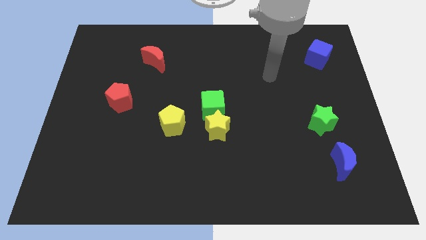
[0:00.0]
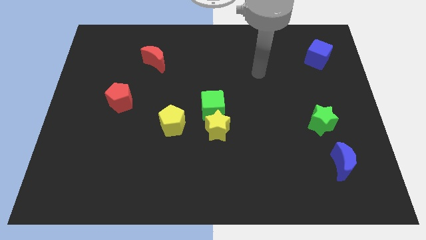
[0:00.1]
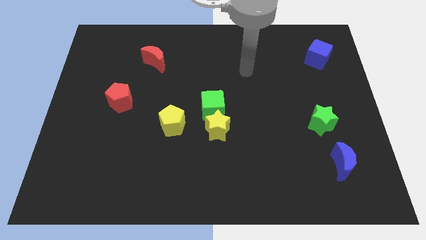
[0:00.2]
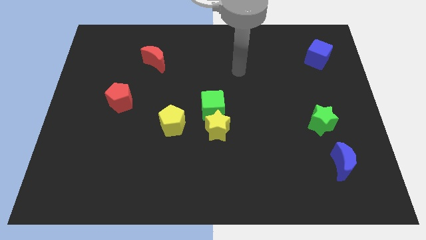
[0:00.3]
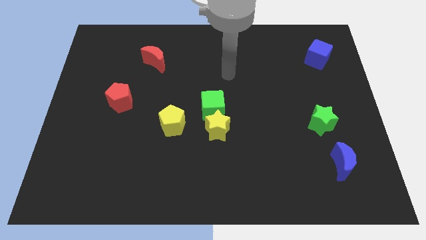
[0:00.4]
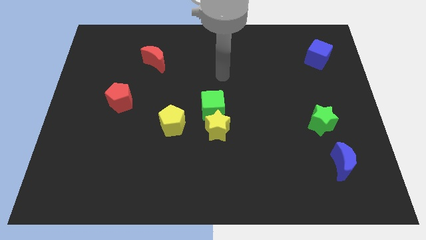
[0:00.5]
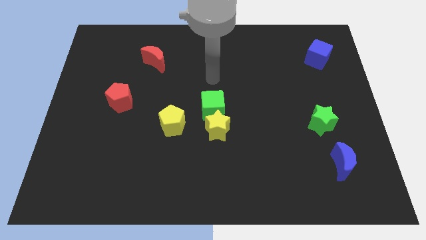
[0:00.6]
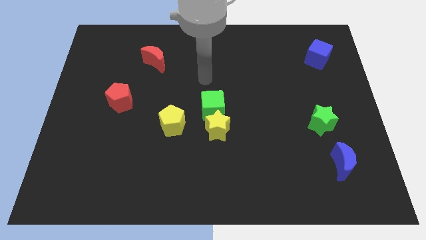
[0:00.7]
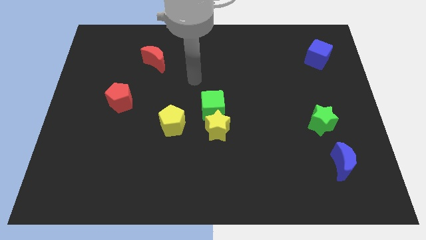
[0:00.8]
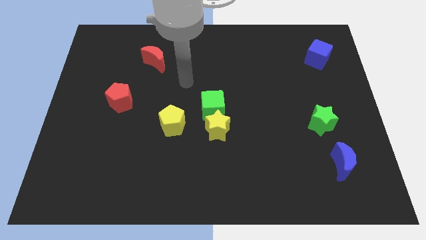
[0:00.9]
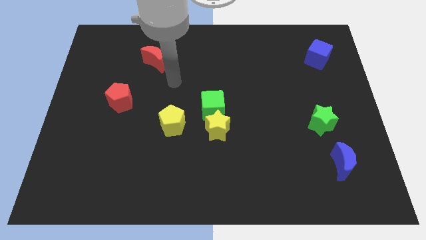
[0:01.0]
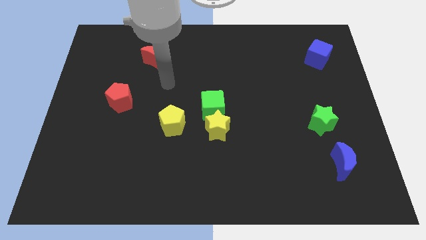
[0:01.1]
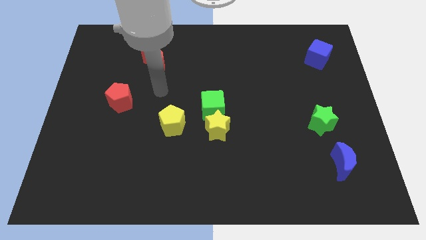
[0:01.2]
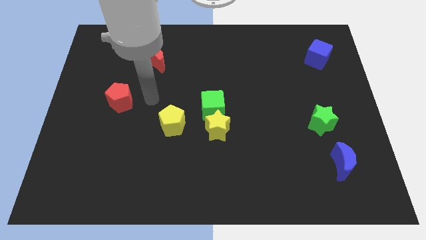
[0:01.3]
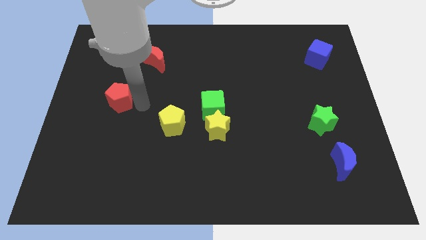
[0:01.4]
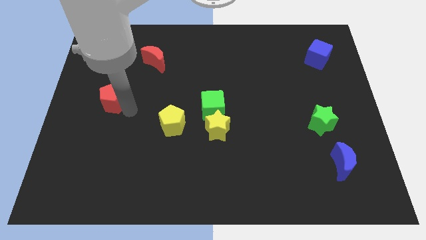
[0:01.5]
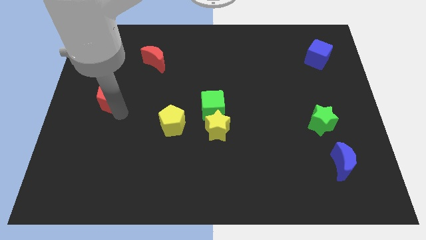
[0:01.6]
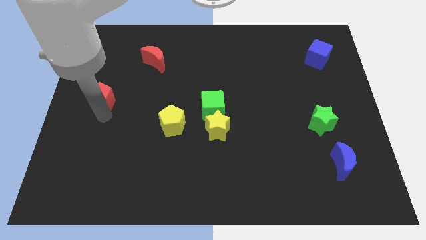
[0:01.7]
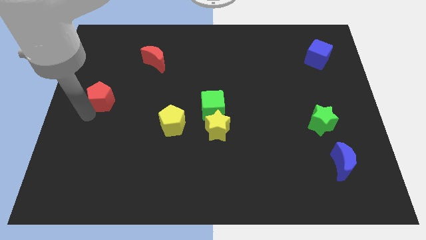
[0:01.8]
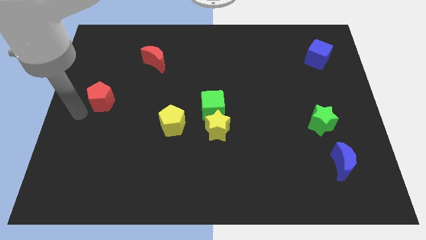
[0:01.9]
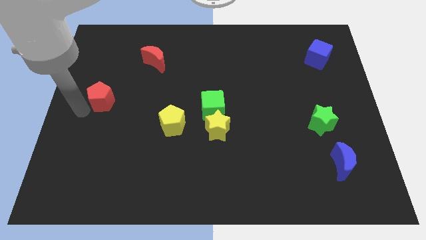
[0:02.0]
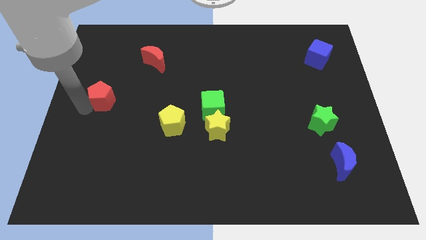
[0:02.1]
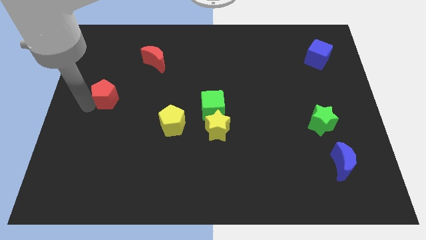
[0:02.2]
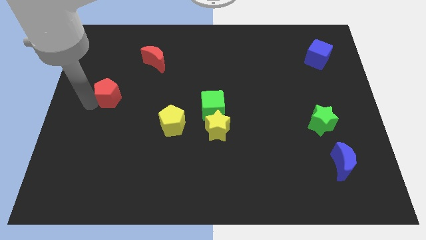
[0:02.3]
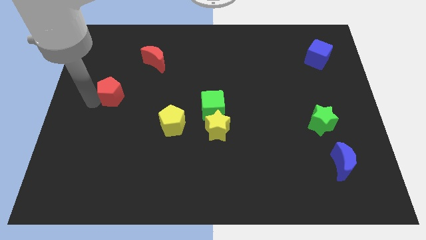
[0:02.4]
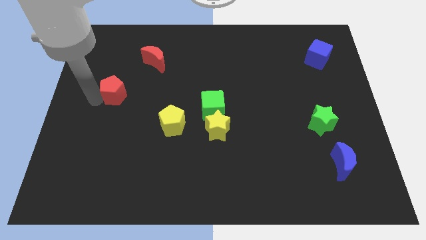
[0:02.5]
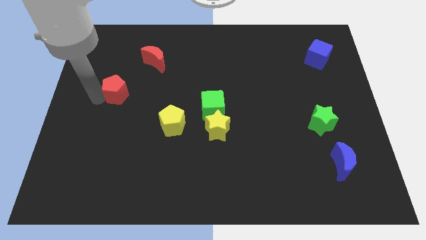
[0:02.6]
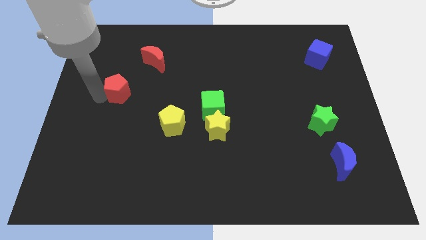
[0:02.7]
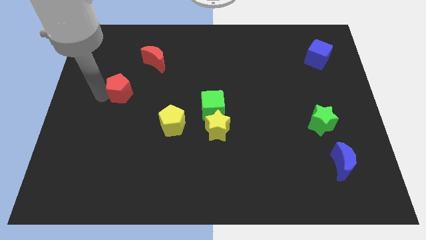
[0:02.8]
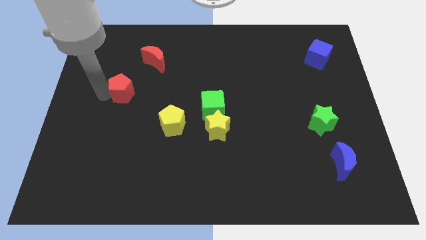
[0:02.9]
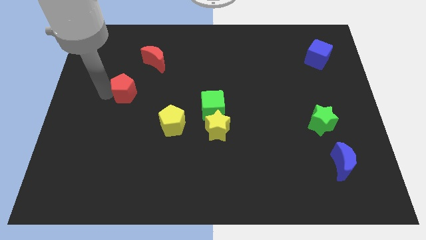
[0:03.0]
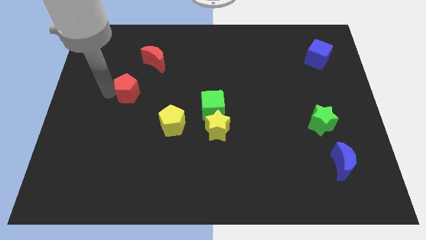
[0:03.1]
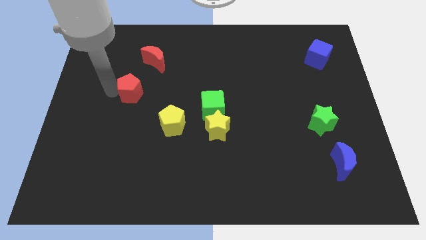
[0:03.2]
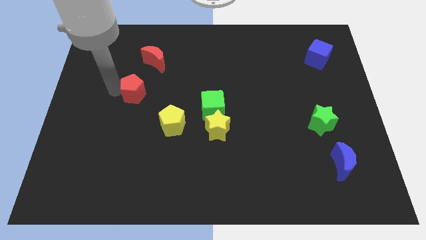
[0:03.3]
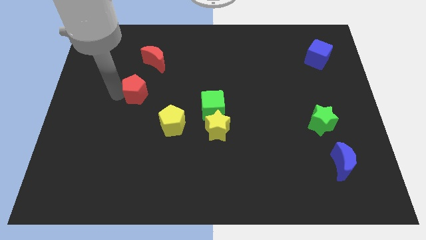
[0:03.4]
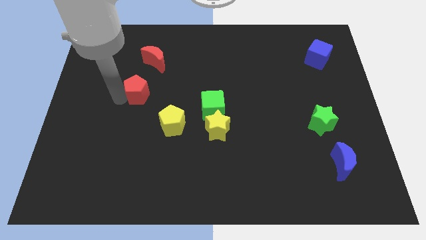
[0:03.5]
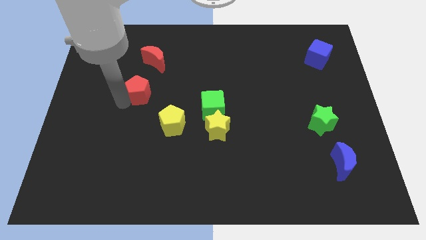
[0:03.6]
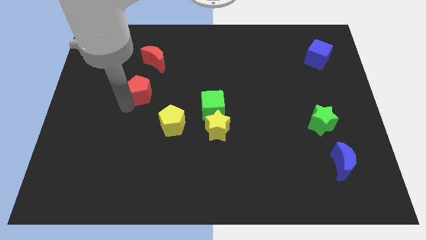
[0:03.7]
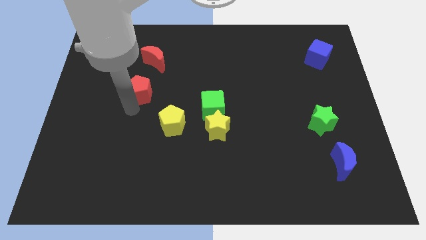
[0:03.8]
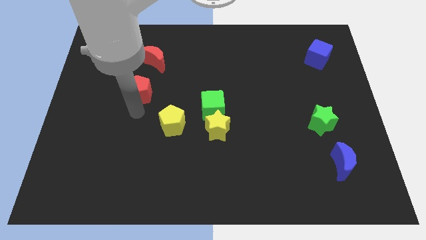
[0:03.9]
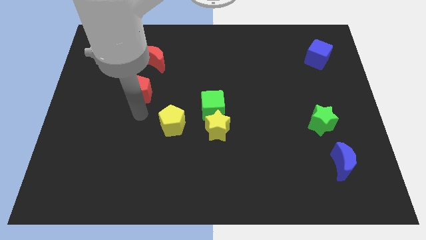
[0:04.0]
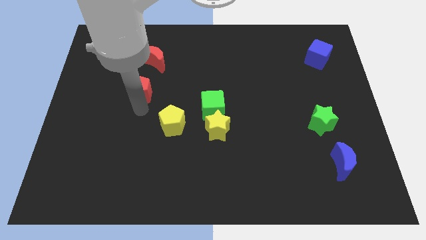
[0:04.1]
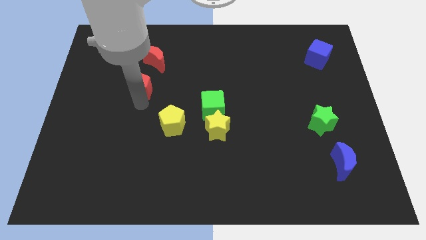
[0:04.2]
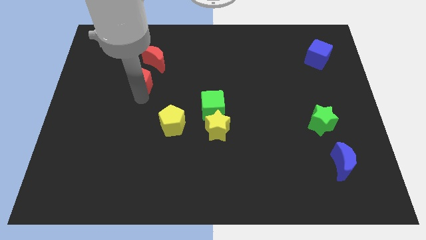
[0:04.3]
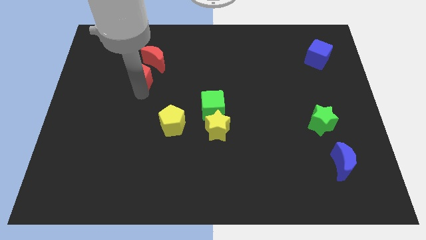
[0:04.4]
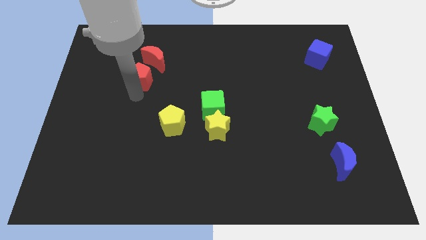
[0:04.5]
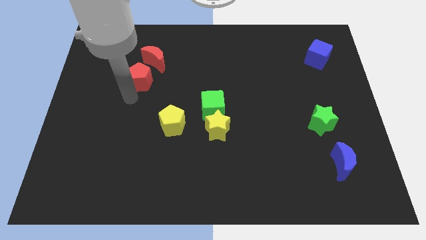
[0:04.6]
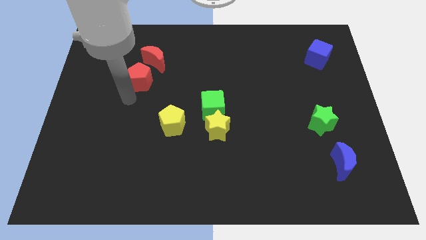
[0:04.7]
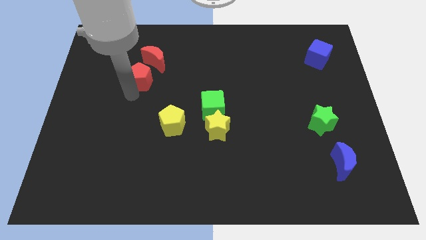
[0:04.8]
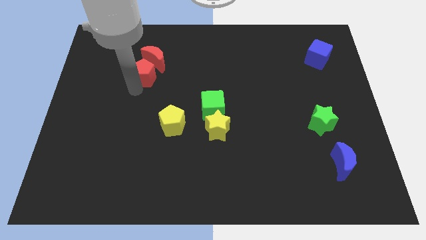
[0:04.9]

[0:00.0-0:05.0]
slide the red pentagon close to the red moon

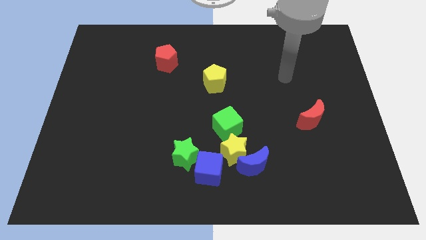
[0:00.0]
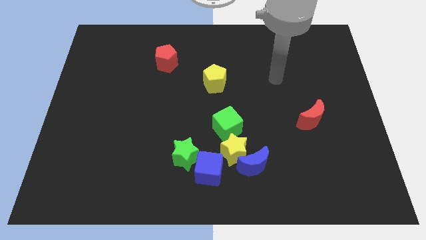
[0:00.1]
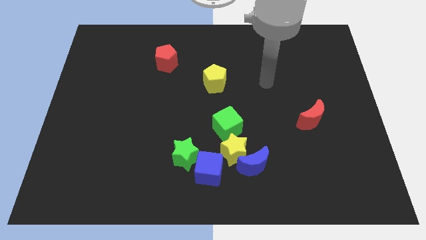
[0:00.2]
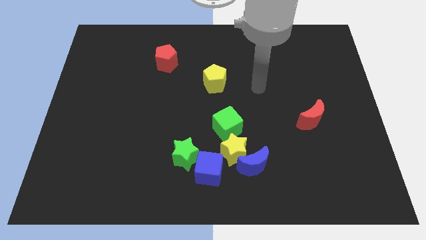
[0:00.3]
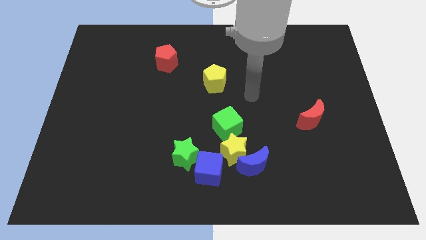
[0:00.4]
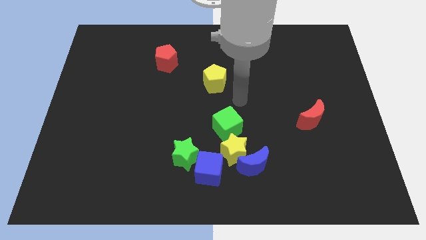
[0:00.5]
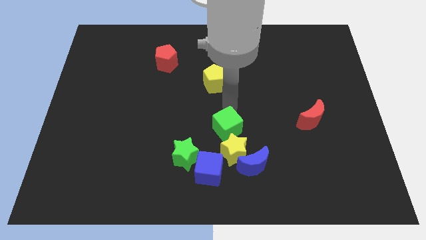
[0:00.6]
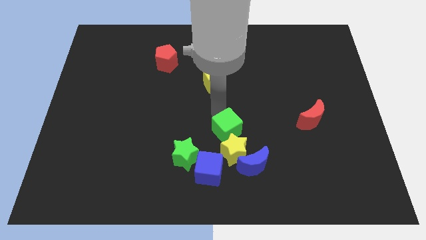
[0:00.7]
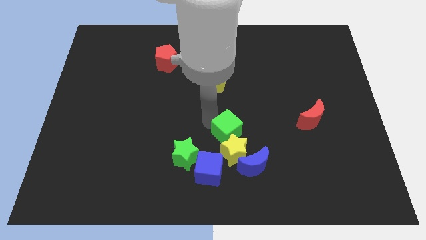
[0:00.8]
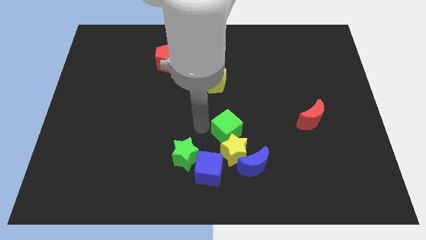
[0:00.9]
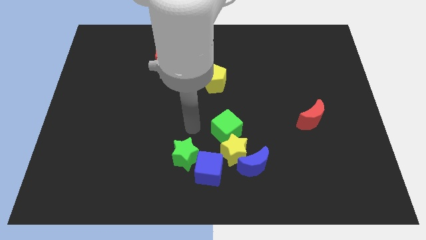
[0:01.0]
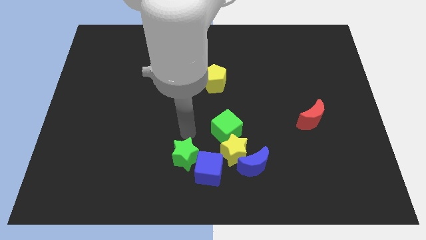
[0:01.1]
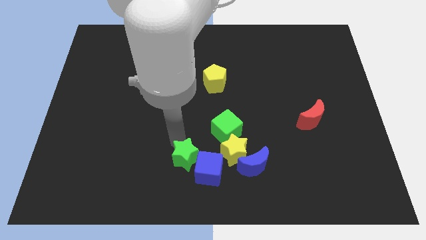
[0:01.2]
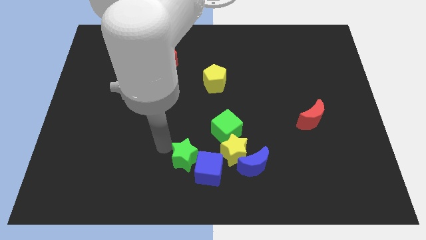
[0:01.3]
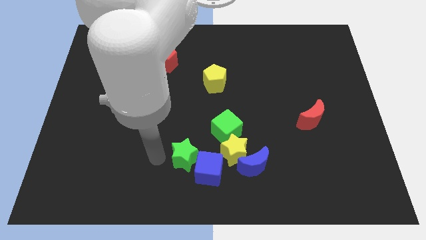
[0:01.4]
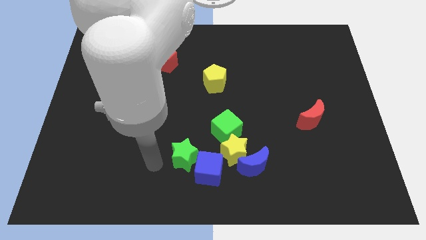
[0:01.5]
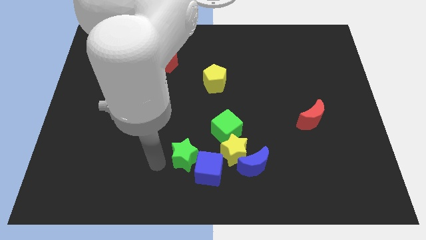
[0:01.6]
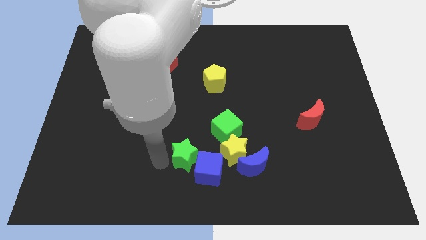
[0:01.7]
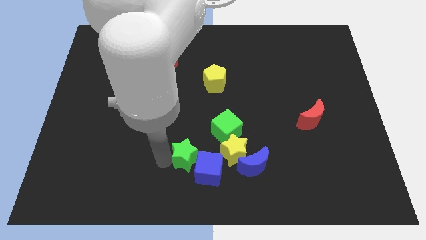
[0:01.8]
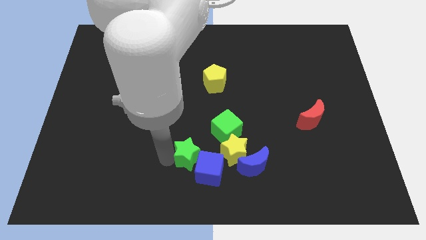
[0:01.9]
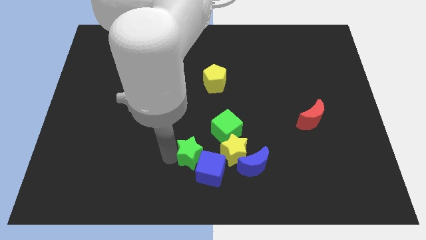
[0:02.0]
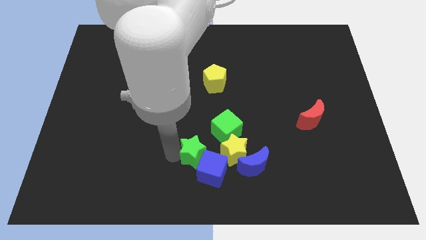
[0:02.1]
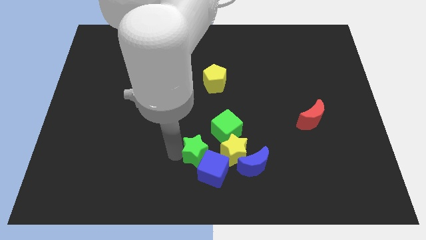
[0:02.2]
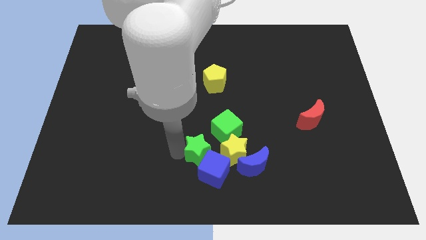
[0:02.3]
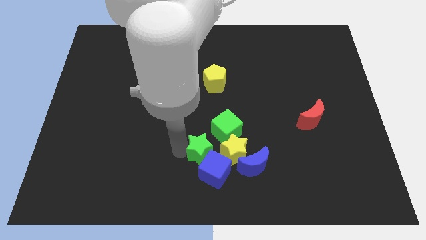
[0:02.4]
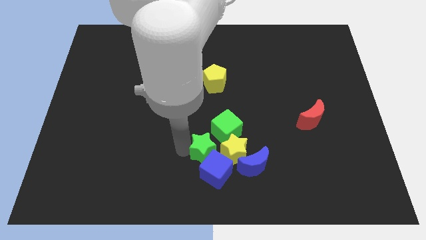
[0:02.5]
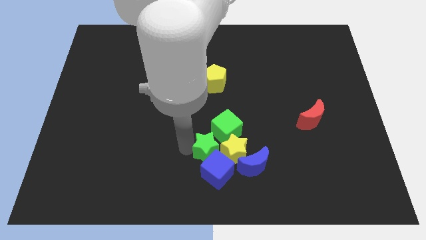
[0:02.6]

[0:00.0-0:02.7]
push the green star next to the yellow star

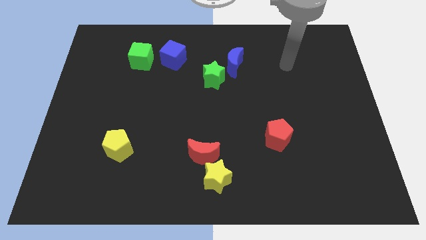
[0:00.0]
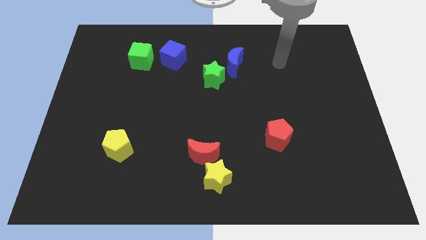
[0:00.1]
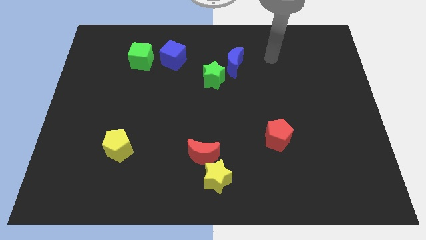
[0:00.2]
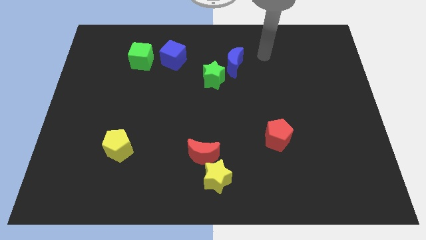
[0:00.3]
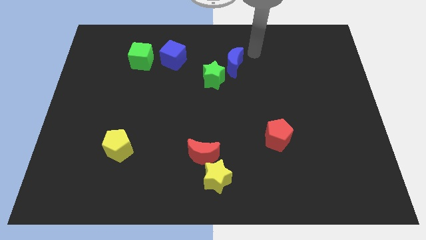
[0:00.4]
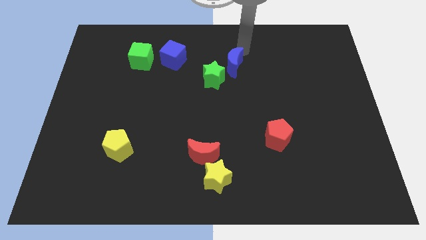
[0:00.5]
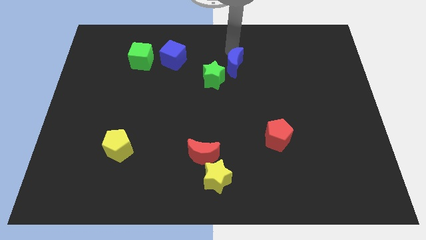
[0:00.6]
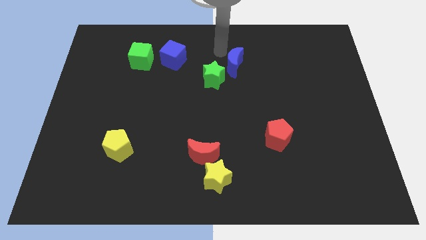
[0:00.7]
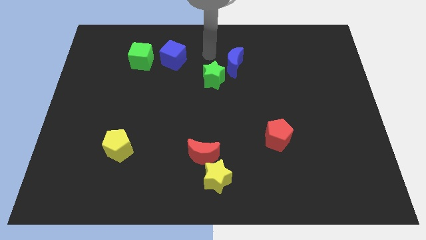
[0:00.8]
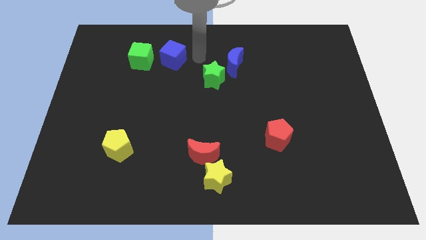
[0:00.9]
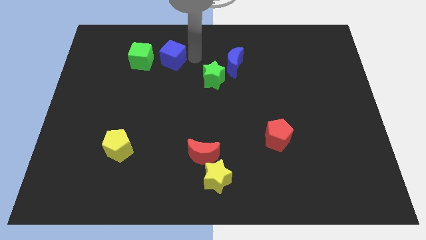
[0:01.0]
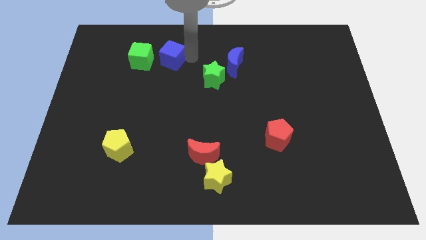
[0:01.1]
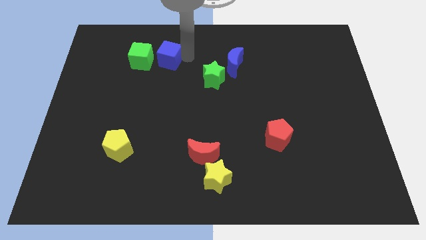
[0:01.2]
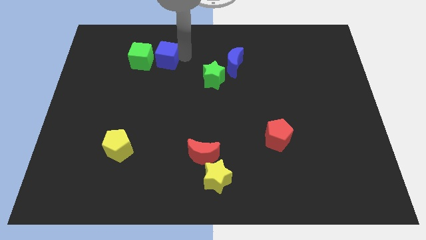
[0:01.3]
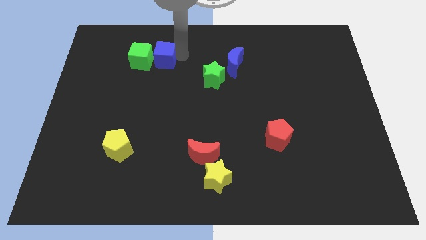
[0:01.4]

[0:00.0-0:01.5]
put the blue cube close to the green cube
